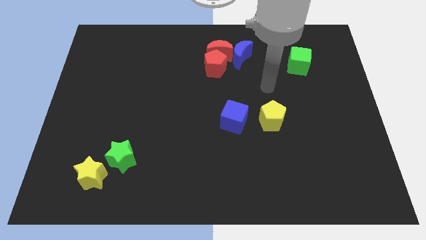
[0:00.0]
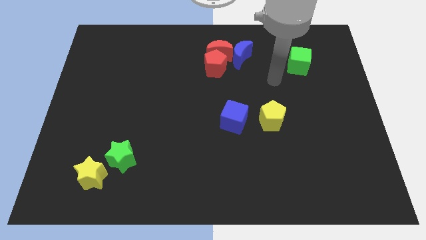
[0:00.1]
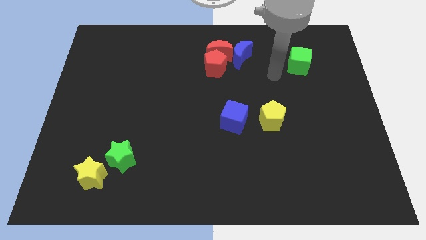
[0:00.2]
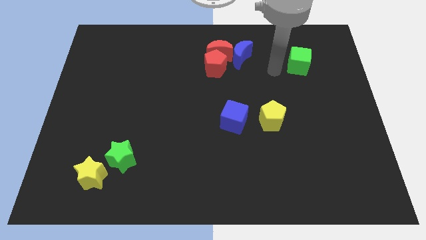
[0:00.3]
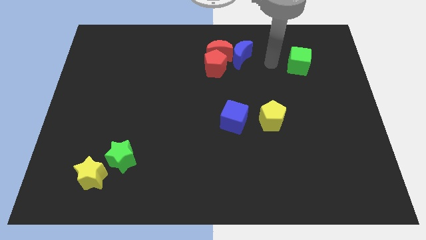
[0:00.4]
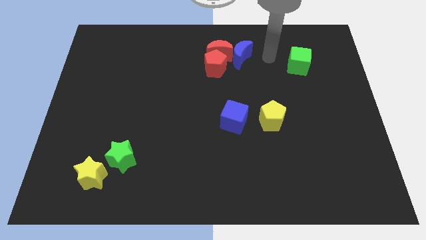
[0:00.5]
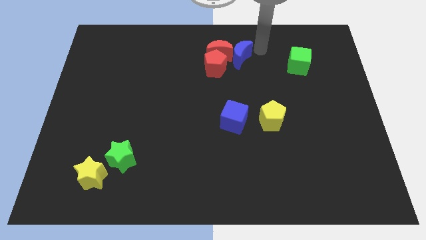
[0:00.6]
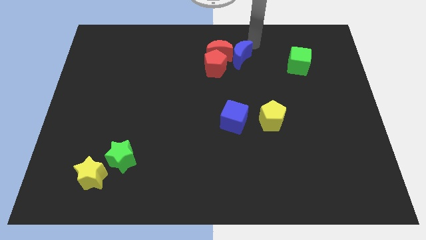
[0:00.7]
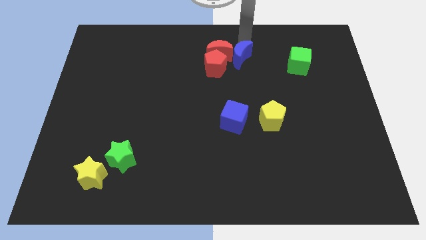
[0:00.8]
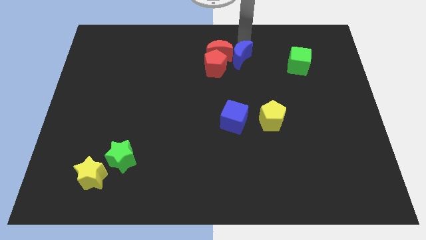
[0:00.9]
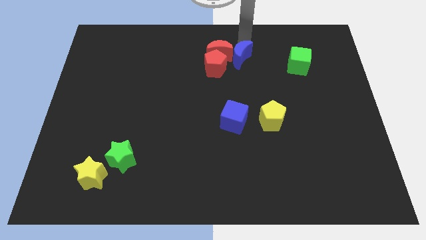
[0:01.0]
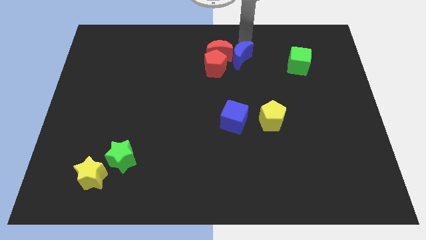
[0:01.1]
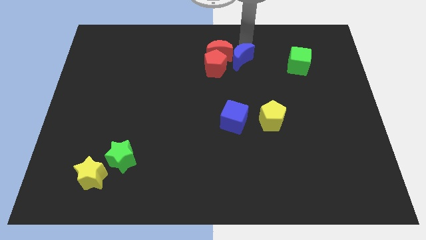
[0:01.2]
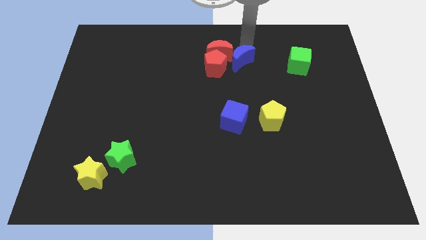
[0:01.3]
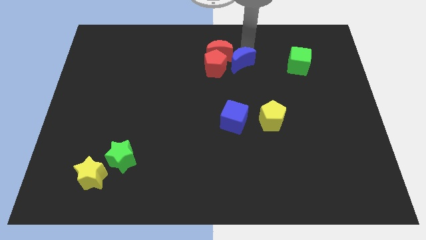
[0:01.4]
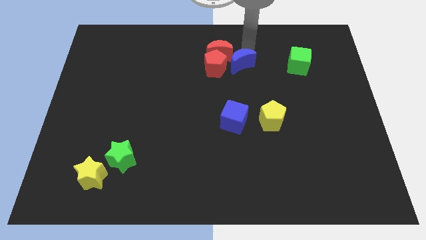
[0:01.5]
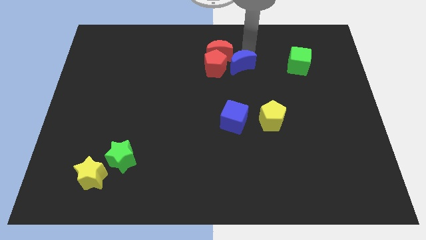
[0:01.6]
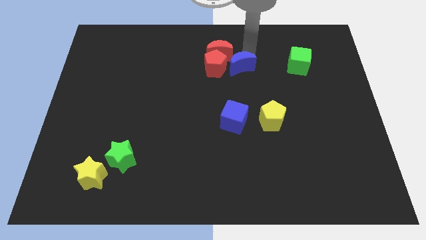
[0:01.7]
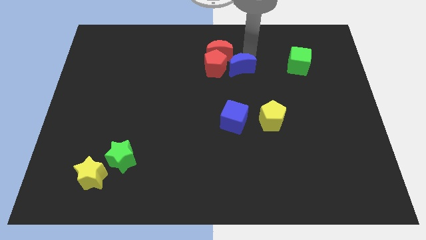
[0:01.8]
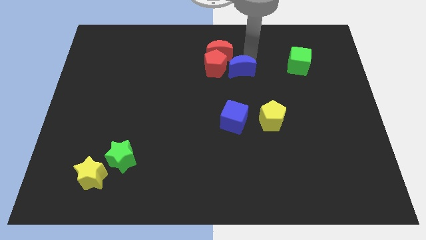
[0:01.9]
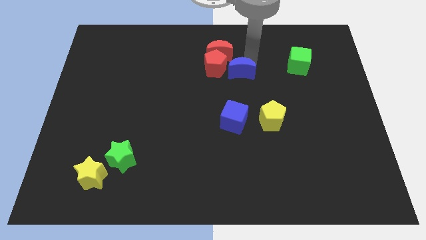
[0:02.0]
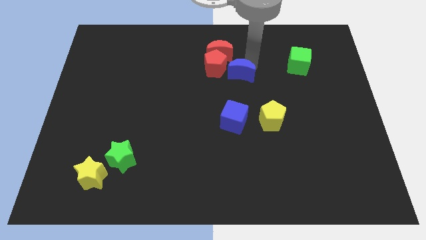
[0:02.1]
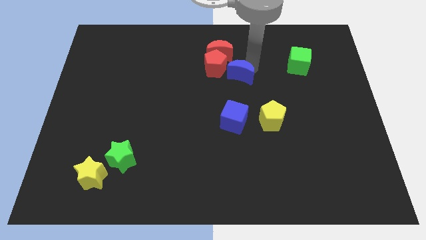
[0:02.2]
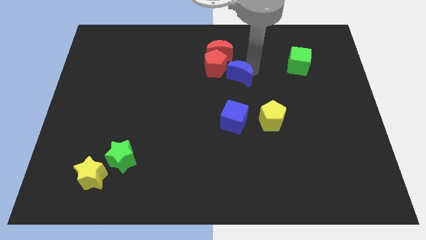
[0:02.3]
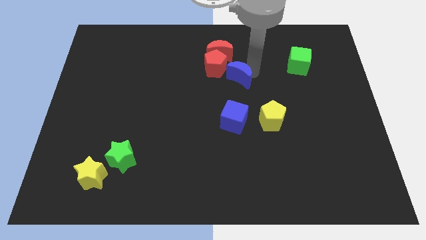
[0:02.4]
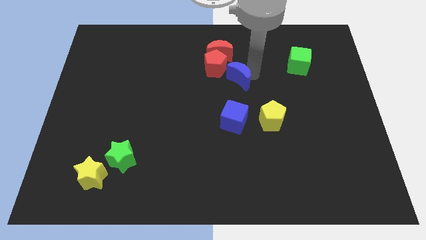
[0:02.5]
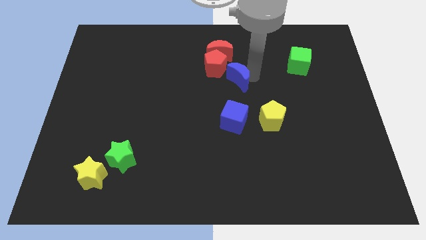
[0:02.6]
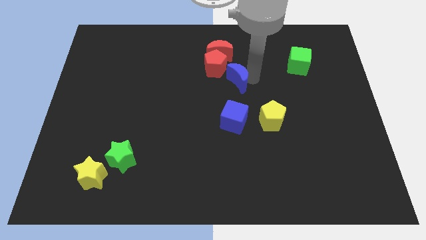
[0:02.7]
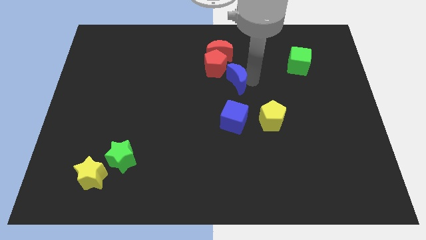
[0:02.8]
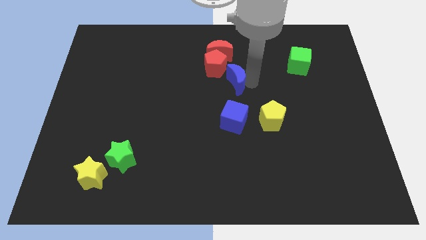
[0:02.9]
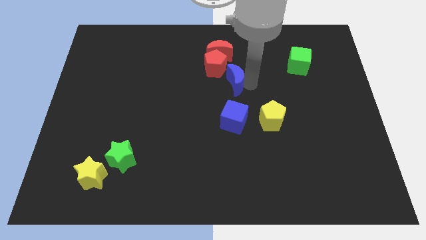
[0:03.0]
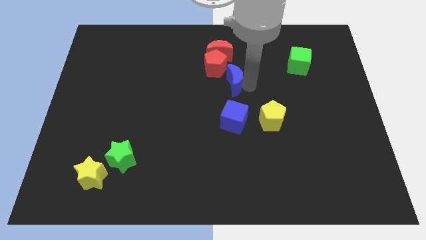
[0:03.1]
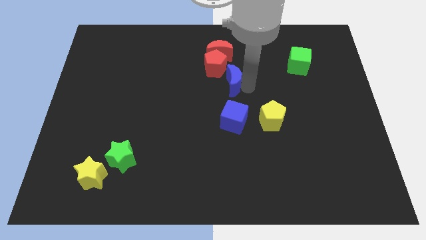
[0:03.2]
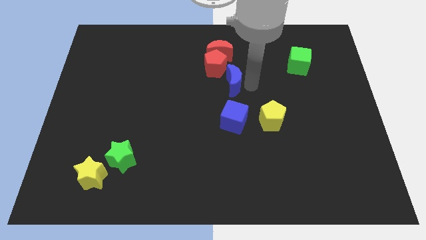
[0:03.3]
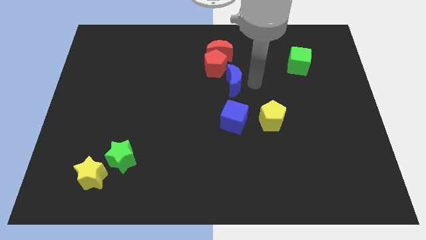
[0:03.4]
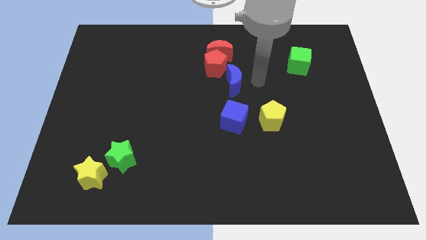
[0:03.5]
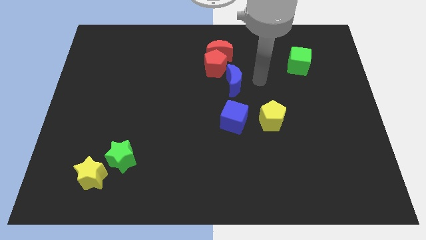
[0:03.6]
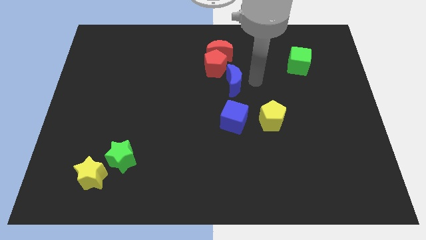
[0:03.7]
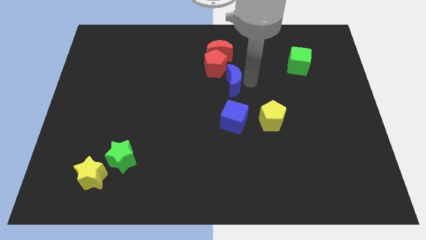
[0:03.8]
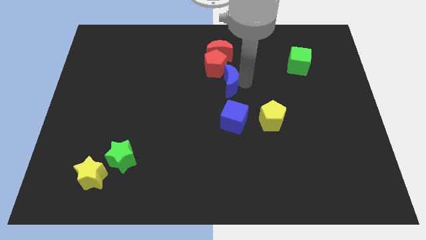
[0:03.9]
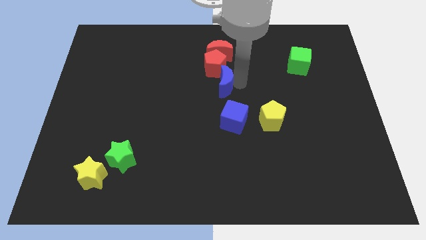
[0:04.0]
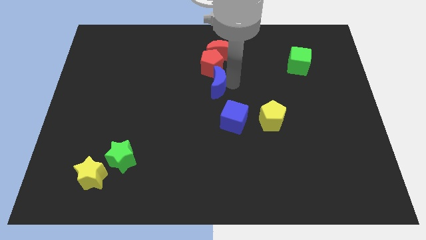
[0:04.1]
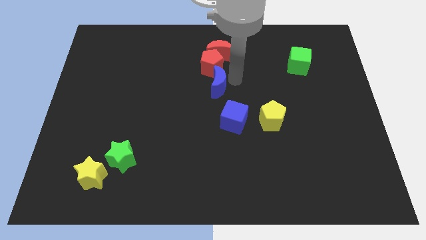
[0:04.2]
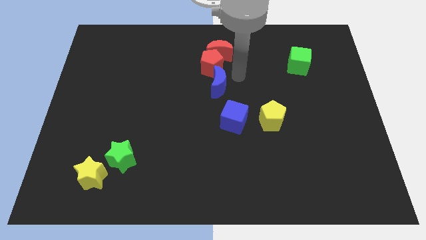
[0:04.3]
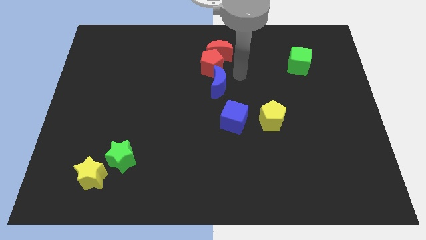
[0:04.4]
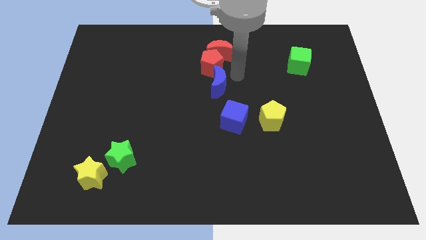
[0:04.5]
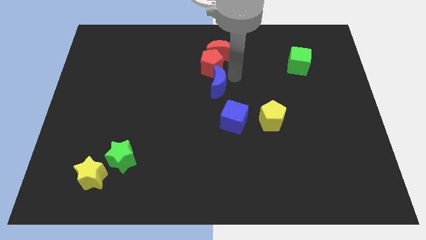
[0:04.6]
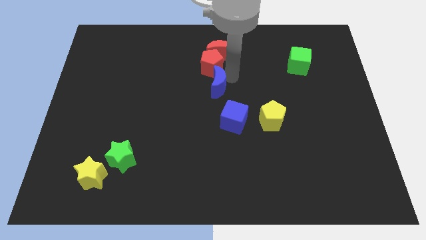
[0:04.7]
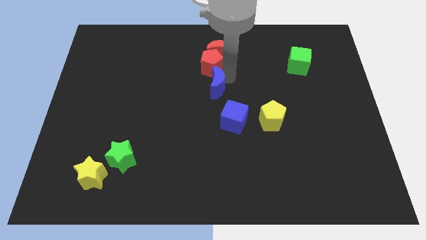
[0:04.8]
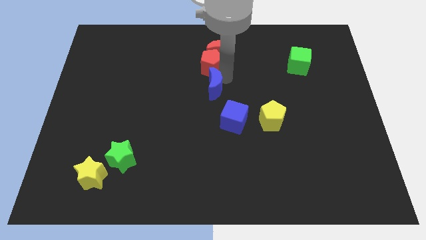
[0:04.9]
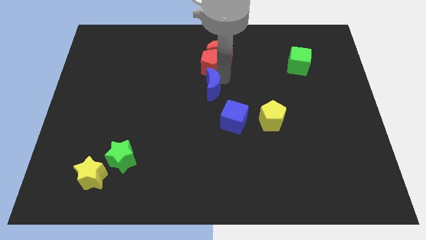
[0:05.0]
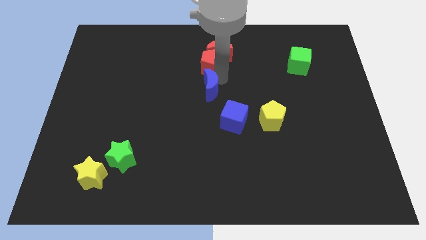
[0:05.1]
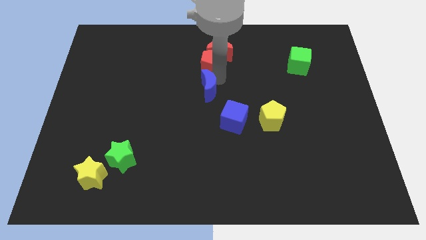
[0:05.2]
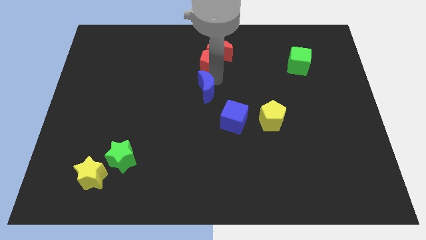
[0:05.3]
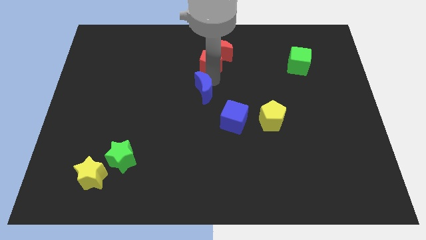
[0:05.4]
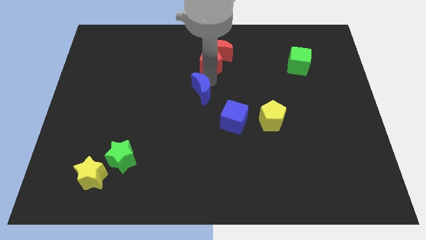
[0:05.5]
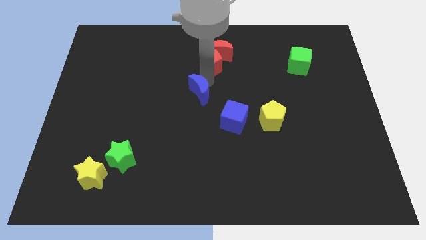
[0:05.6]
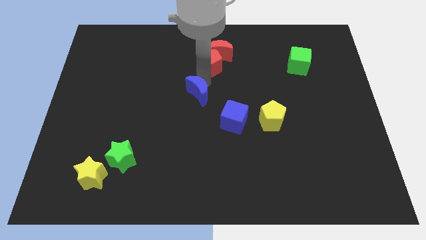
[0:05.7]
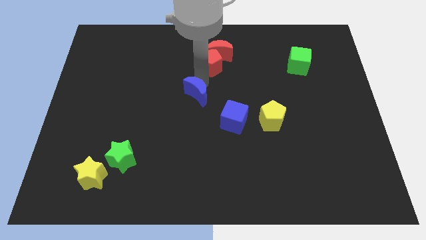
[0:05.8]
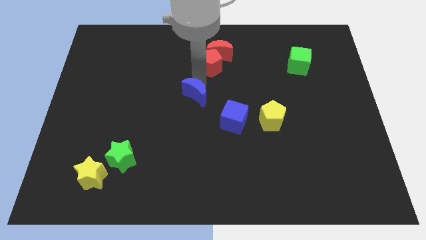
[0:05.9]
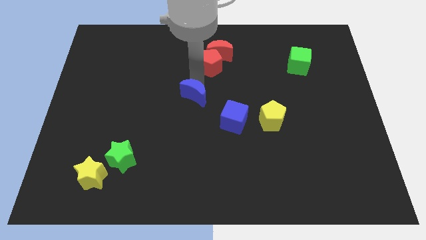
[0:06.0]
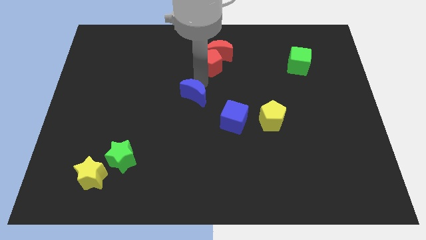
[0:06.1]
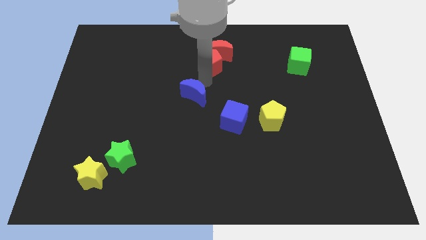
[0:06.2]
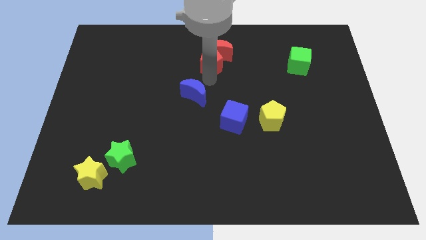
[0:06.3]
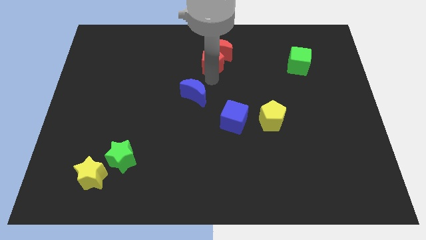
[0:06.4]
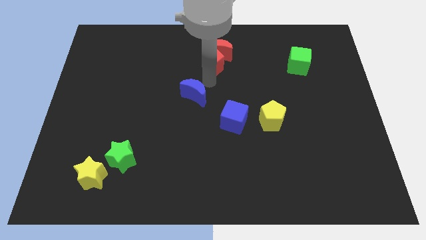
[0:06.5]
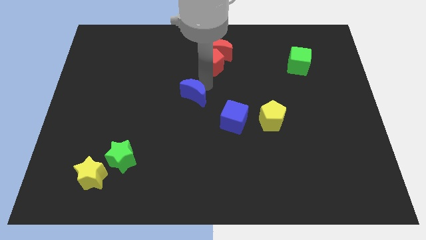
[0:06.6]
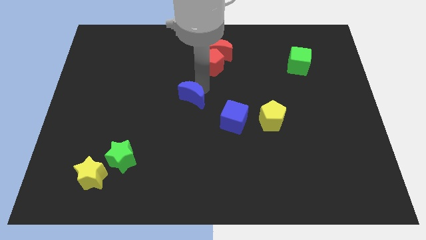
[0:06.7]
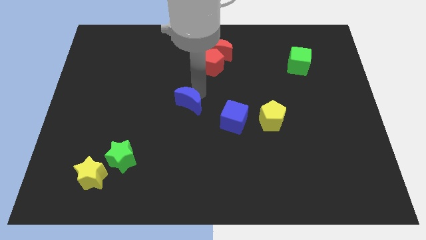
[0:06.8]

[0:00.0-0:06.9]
push the blue moon down and then to the left

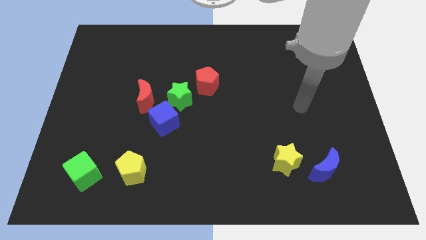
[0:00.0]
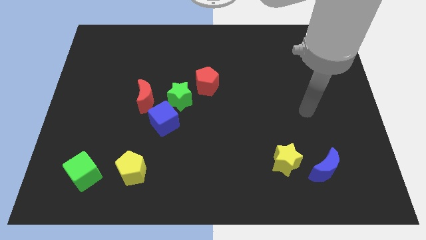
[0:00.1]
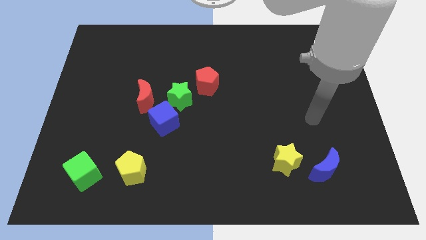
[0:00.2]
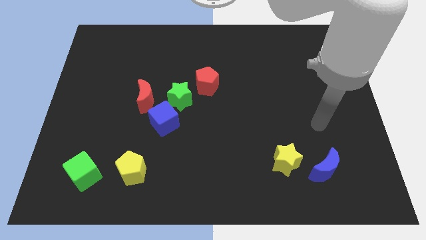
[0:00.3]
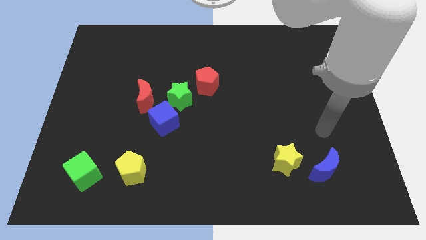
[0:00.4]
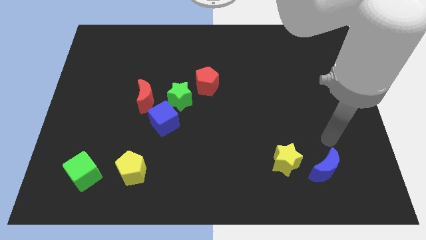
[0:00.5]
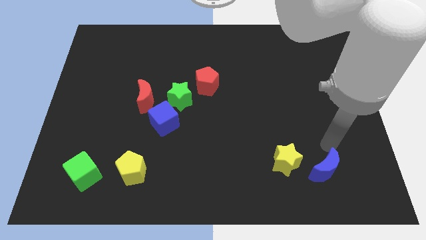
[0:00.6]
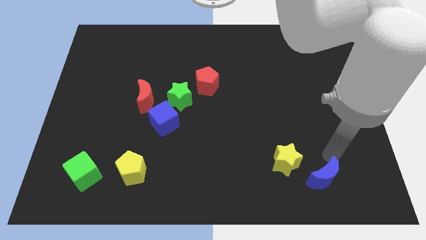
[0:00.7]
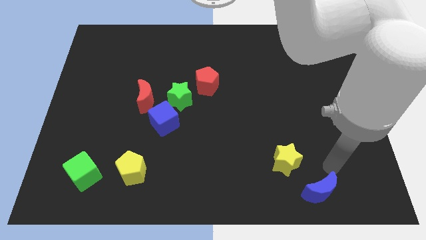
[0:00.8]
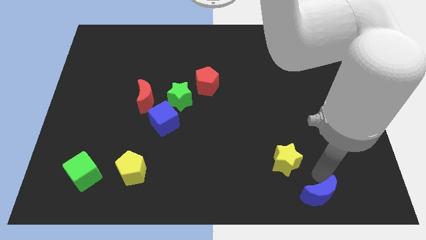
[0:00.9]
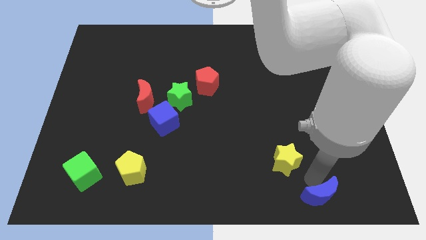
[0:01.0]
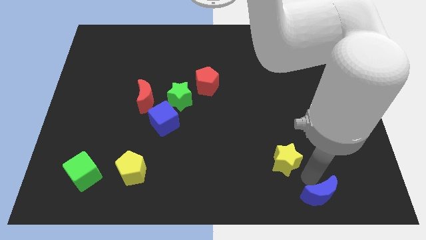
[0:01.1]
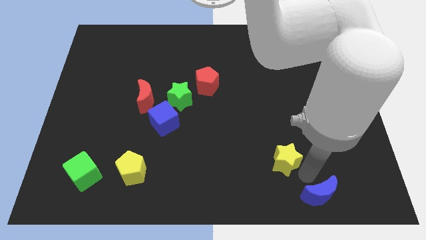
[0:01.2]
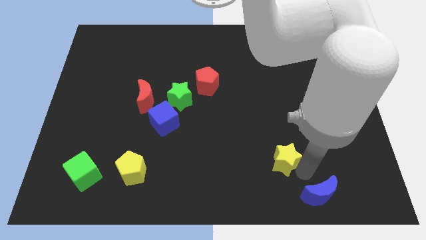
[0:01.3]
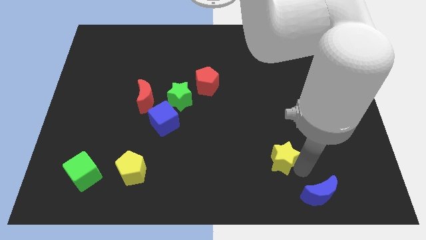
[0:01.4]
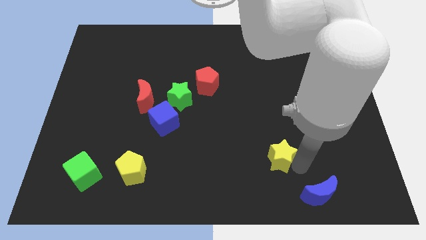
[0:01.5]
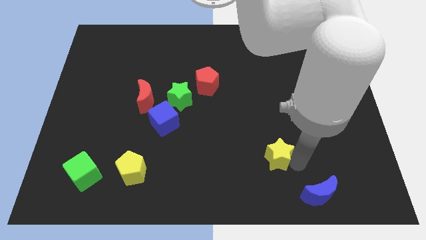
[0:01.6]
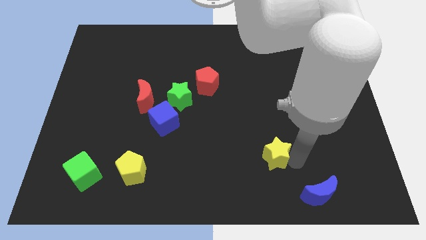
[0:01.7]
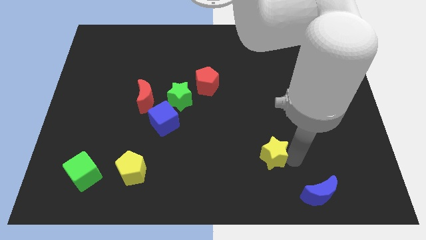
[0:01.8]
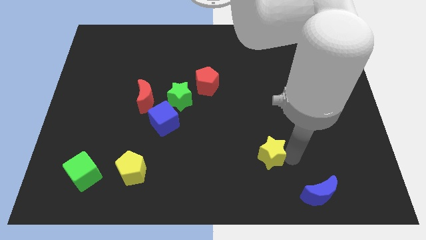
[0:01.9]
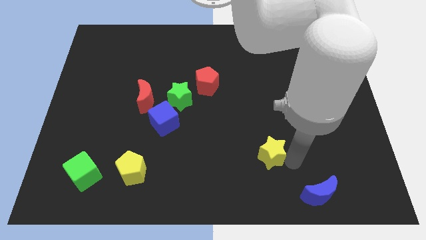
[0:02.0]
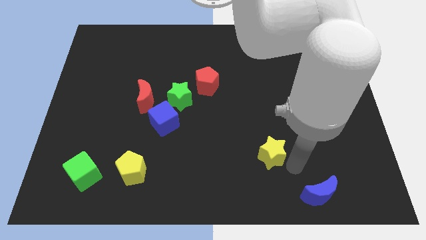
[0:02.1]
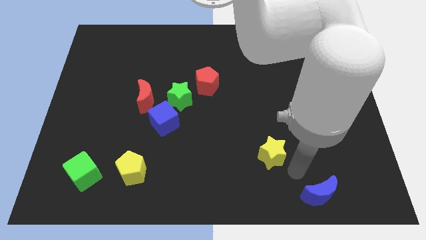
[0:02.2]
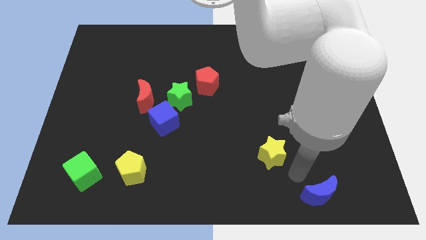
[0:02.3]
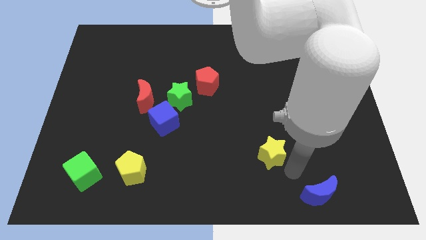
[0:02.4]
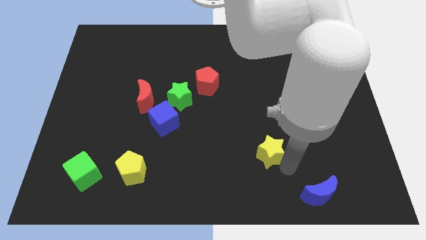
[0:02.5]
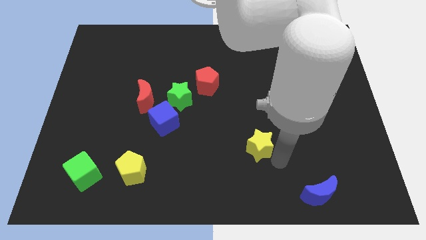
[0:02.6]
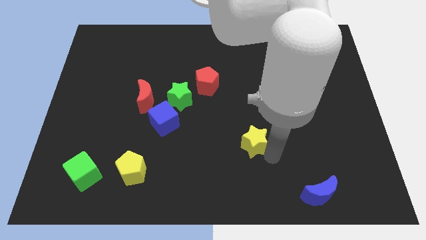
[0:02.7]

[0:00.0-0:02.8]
move the yellow star upwards and to the left diagonally a little
